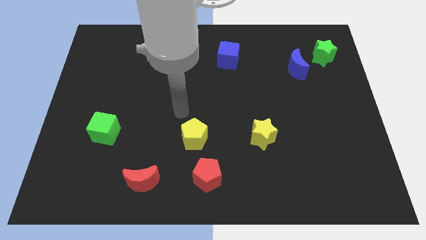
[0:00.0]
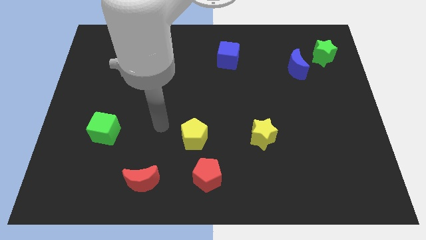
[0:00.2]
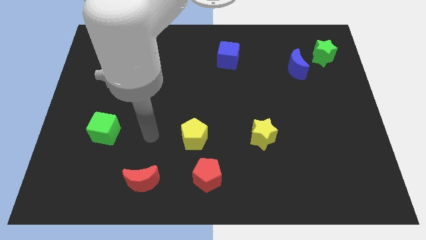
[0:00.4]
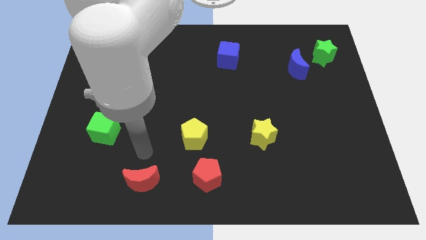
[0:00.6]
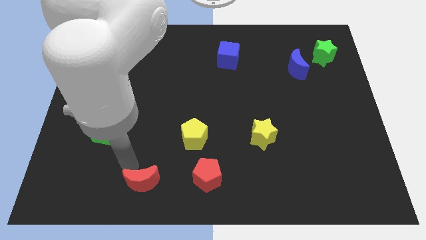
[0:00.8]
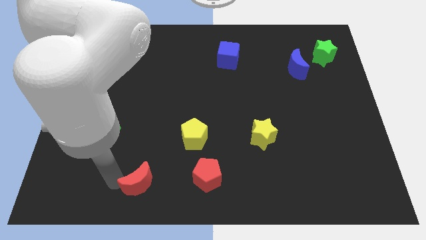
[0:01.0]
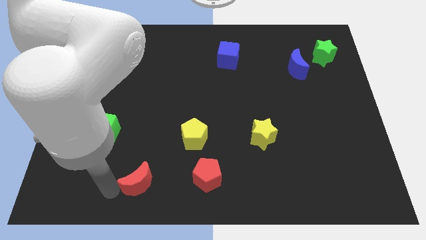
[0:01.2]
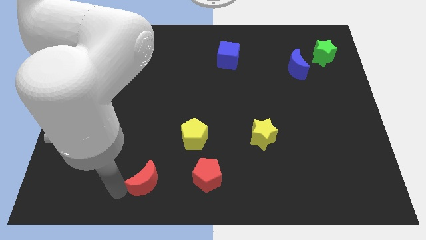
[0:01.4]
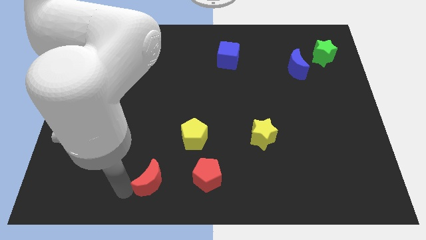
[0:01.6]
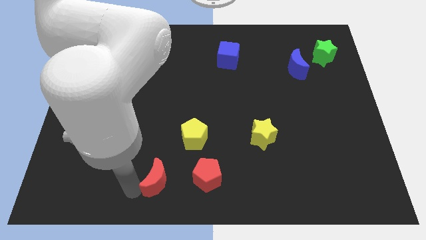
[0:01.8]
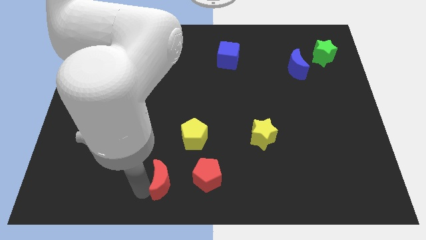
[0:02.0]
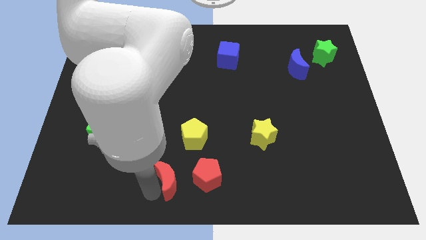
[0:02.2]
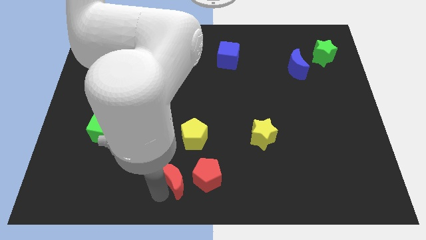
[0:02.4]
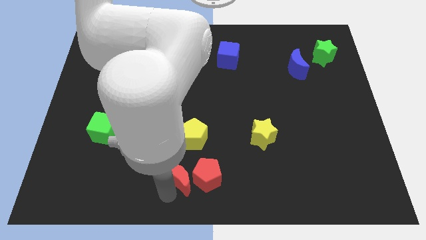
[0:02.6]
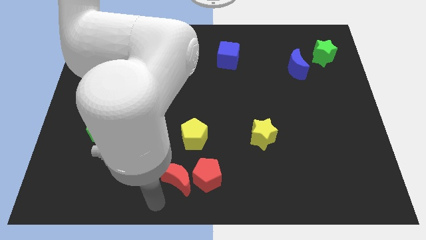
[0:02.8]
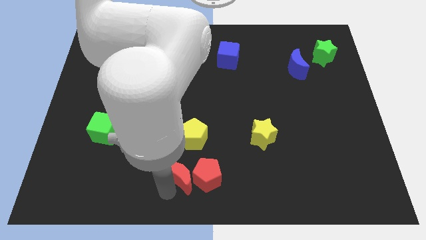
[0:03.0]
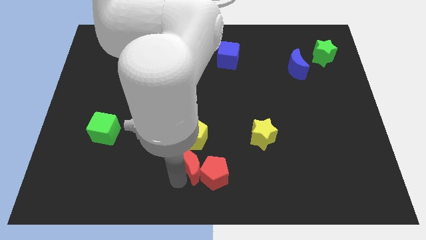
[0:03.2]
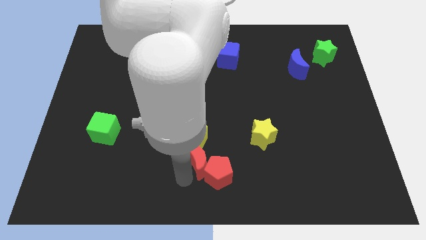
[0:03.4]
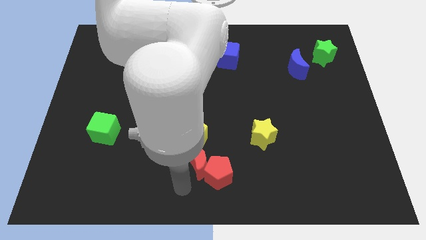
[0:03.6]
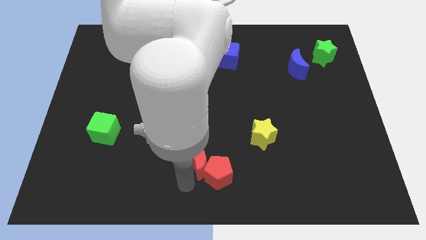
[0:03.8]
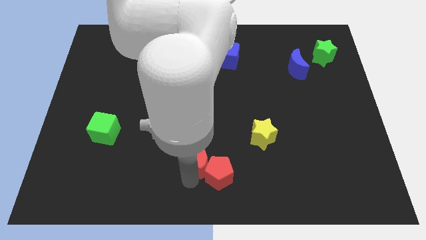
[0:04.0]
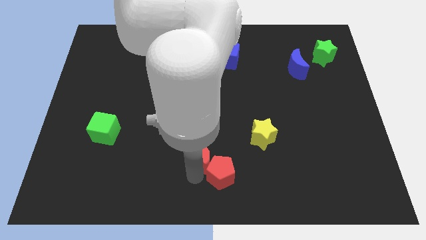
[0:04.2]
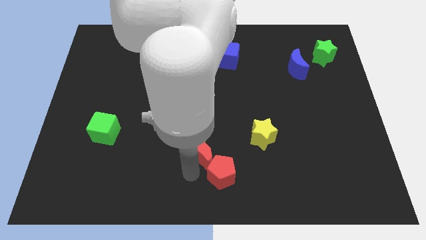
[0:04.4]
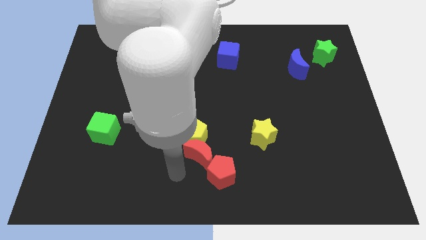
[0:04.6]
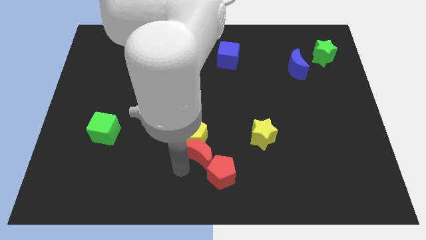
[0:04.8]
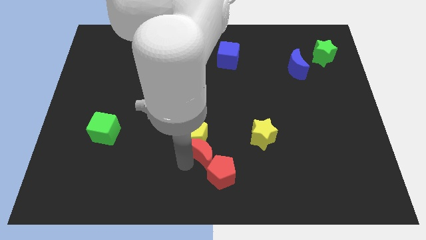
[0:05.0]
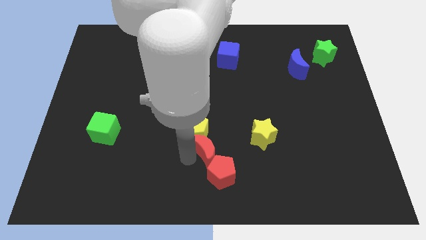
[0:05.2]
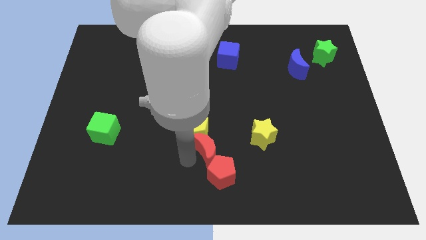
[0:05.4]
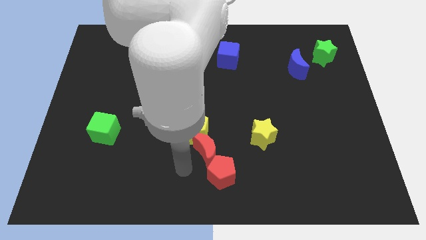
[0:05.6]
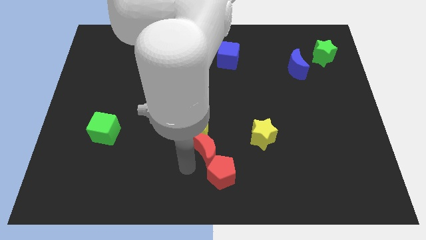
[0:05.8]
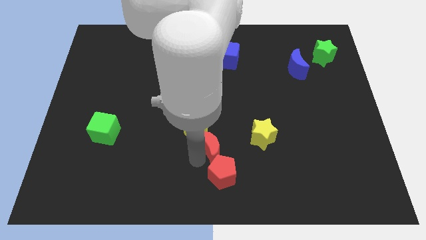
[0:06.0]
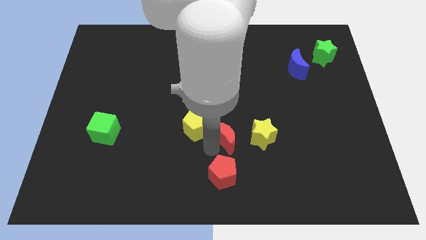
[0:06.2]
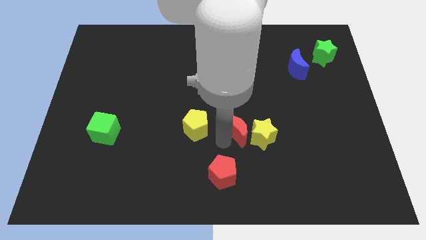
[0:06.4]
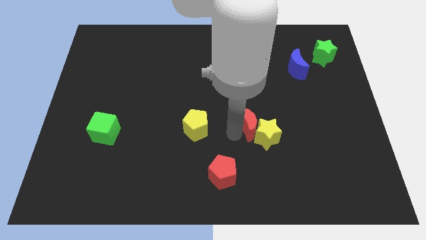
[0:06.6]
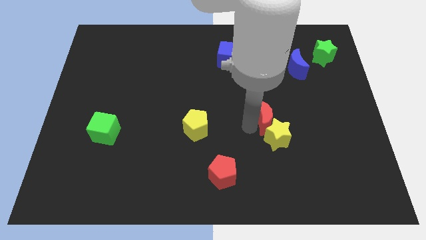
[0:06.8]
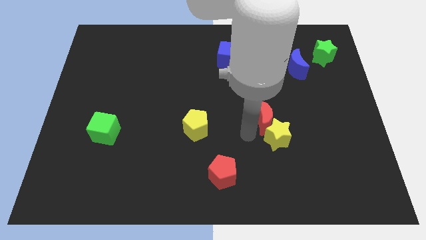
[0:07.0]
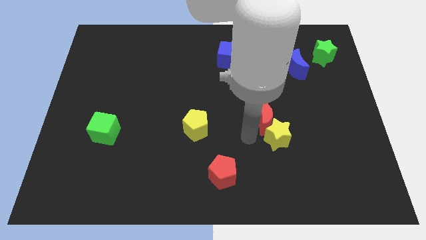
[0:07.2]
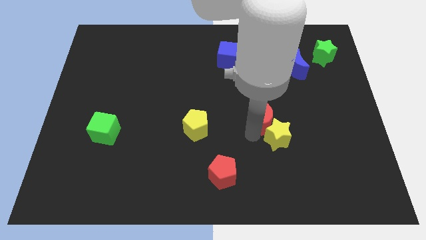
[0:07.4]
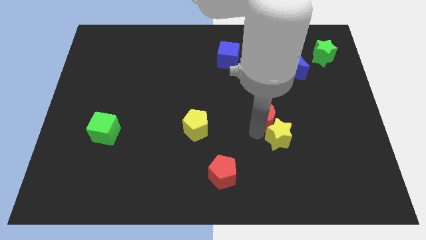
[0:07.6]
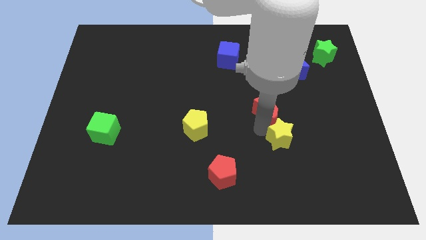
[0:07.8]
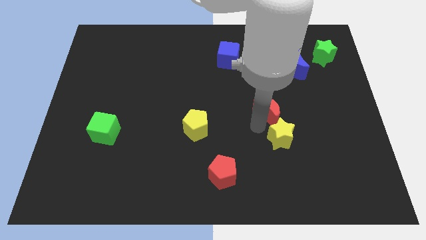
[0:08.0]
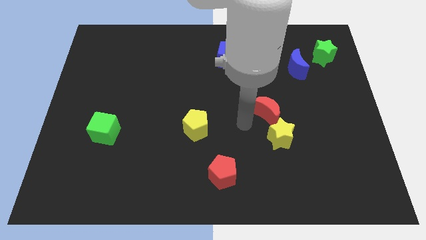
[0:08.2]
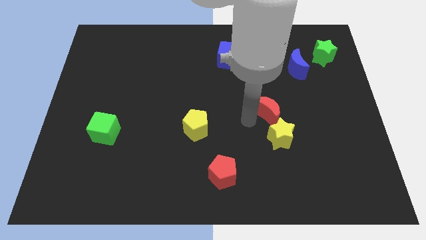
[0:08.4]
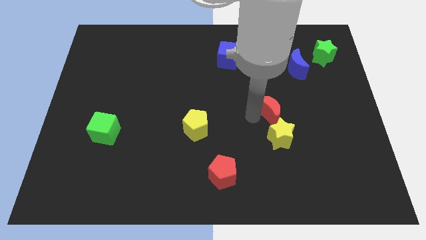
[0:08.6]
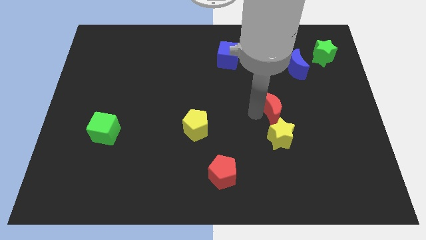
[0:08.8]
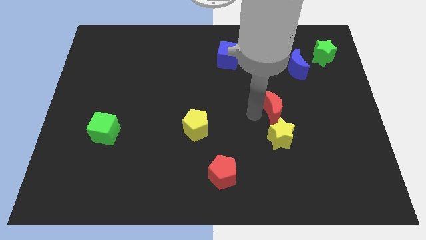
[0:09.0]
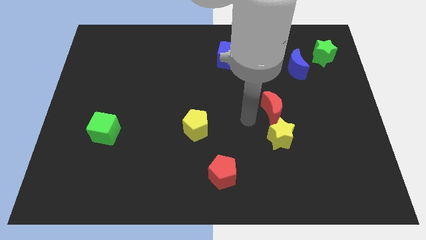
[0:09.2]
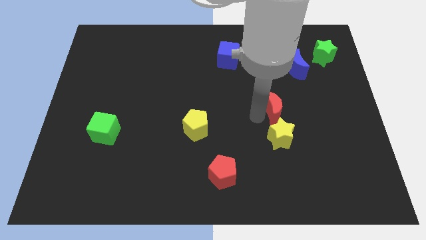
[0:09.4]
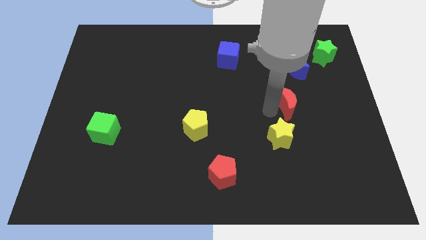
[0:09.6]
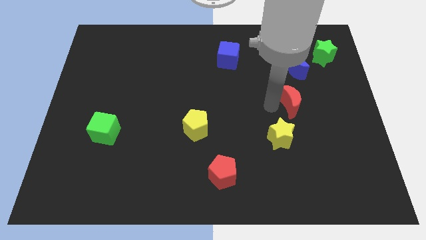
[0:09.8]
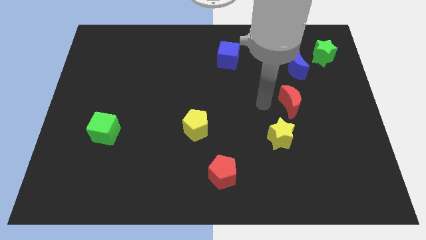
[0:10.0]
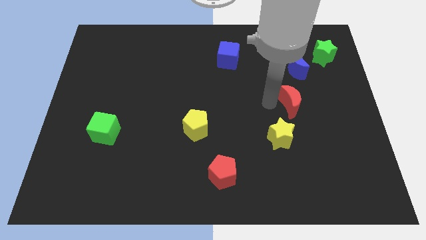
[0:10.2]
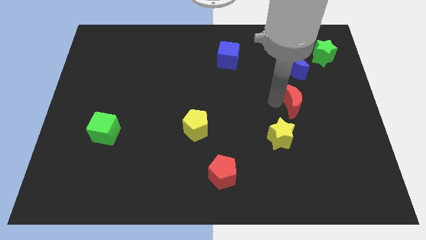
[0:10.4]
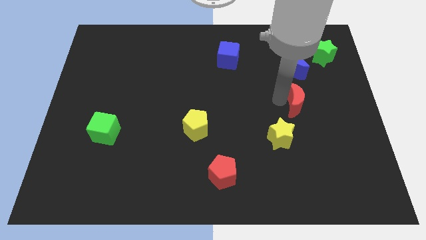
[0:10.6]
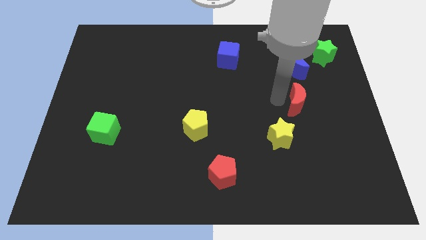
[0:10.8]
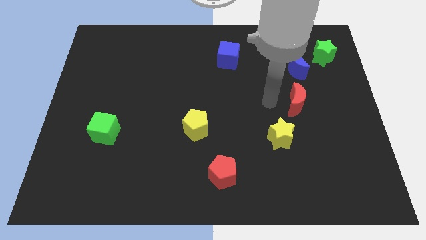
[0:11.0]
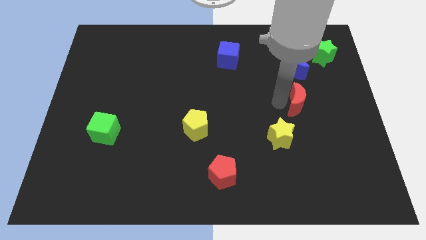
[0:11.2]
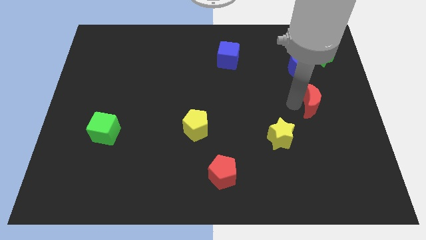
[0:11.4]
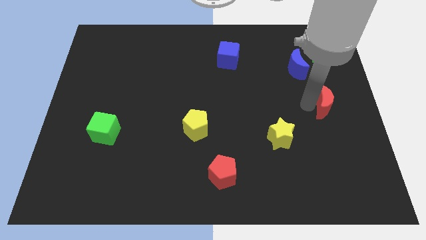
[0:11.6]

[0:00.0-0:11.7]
slide the red moon to the right side

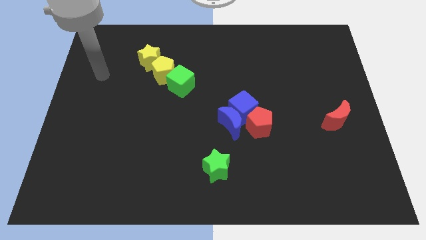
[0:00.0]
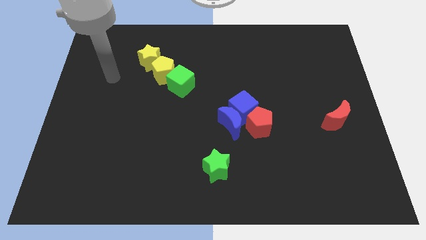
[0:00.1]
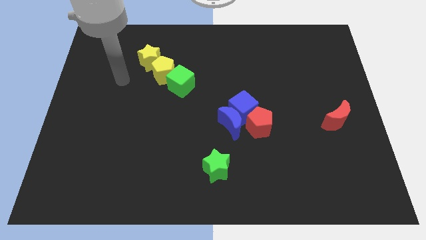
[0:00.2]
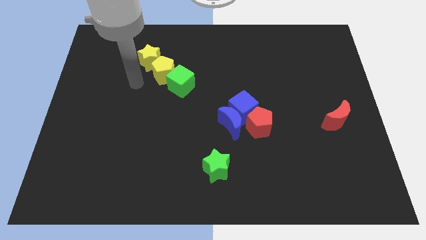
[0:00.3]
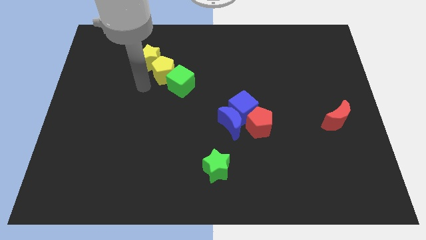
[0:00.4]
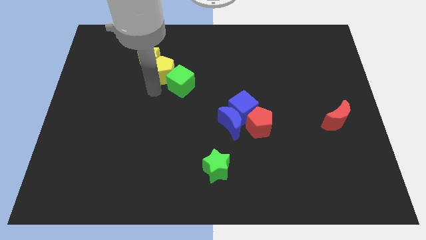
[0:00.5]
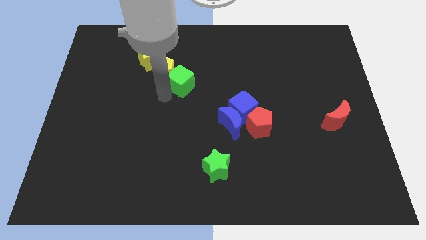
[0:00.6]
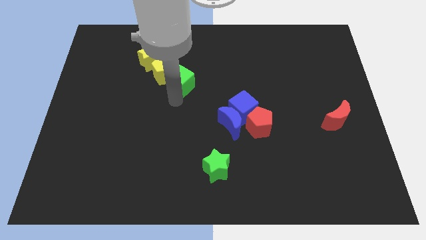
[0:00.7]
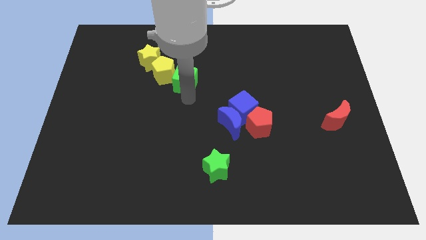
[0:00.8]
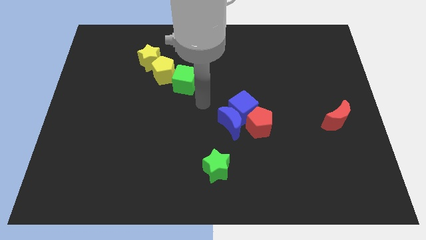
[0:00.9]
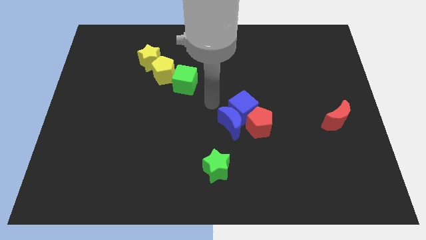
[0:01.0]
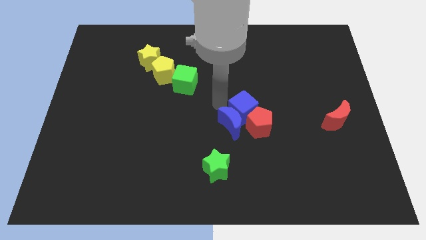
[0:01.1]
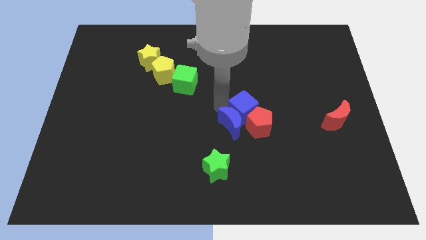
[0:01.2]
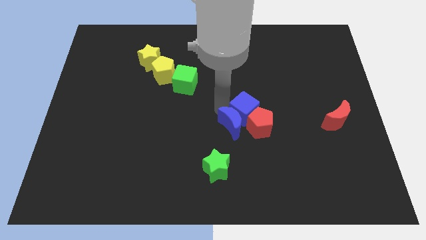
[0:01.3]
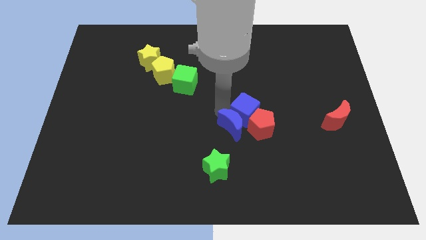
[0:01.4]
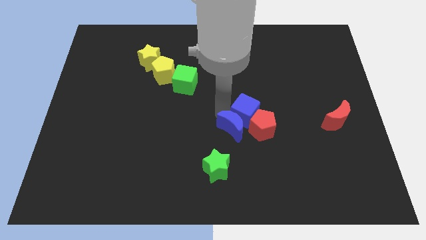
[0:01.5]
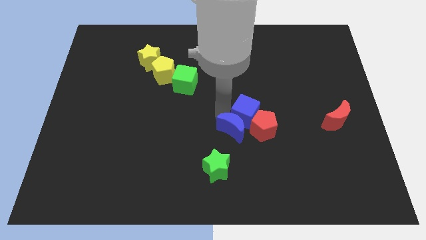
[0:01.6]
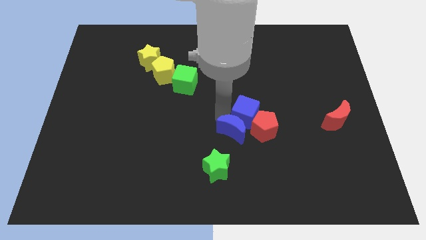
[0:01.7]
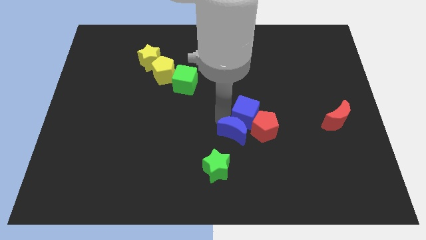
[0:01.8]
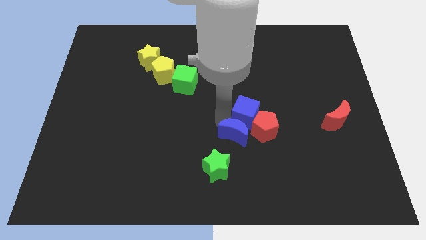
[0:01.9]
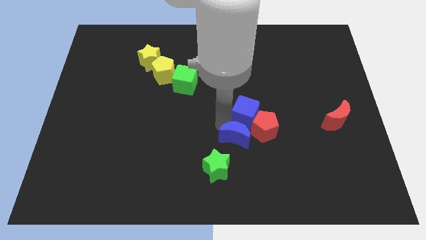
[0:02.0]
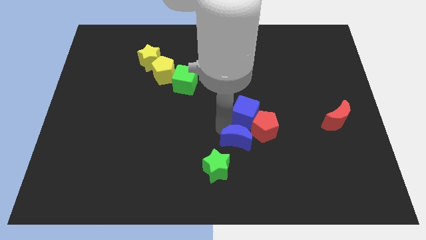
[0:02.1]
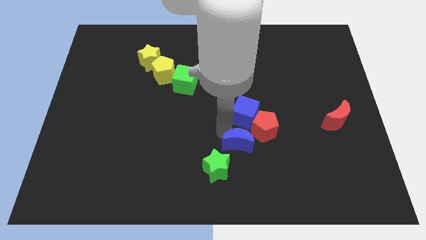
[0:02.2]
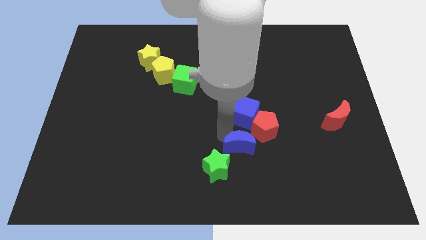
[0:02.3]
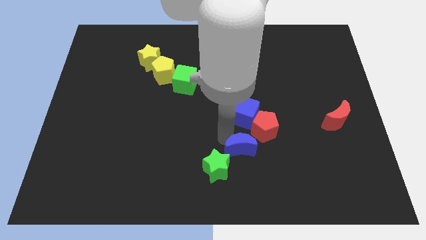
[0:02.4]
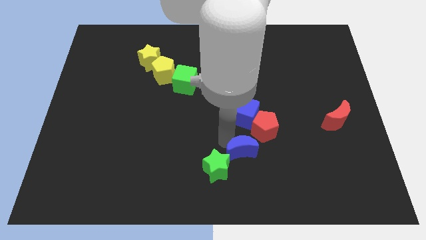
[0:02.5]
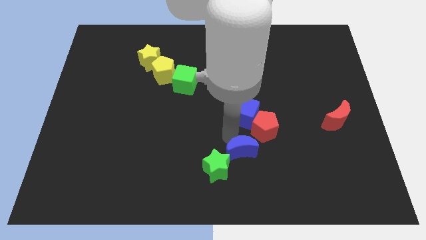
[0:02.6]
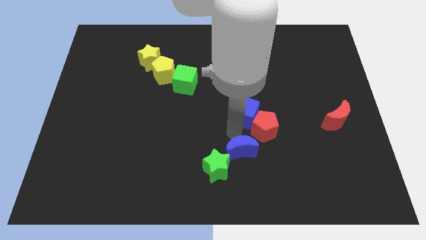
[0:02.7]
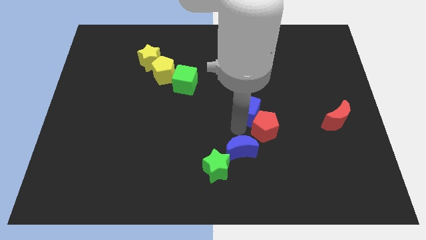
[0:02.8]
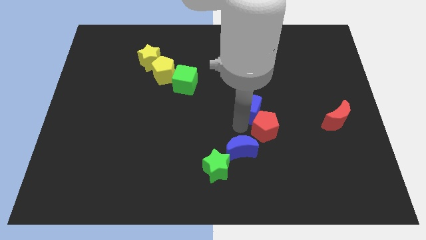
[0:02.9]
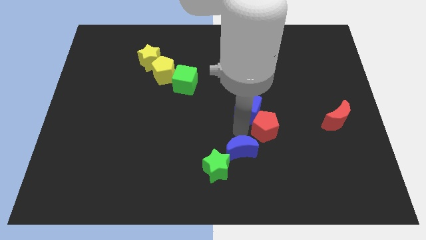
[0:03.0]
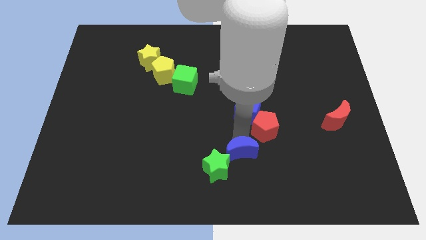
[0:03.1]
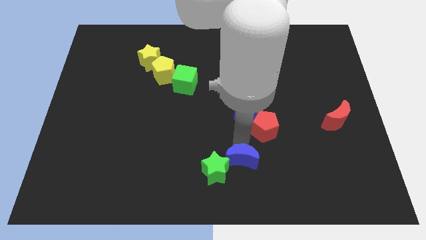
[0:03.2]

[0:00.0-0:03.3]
move the blue moon to the bottom side
